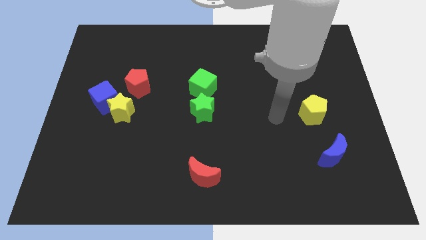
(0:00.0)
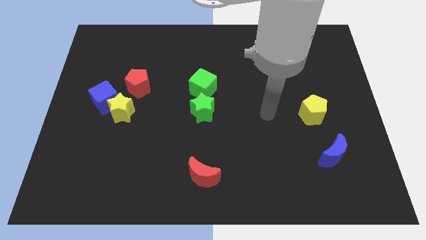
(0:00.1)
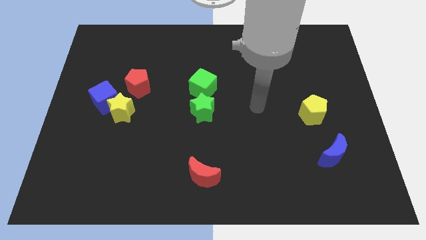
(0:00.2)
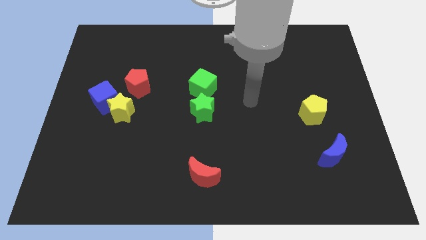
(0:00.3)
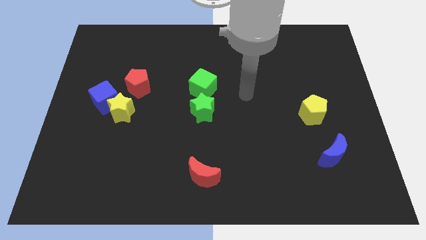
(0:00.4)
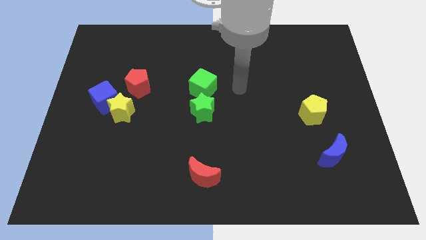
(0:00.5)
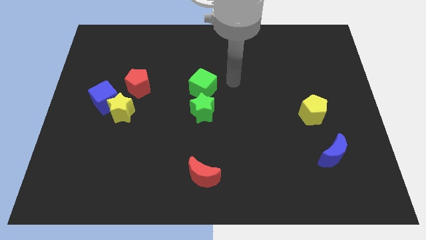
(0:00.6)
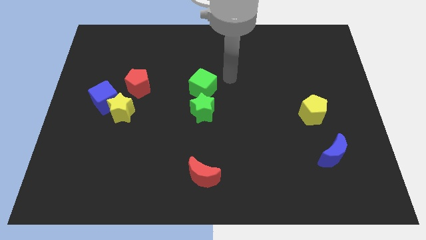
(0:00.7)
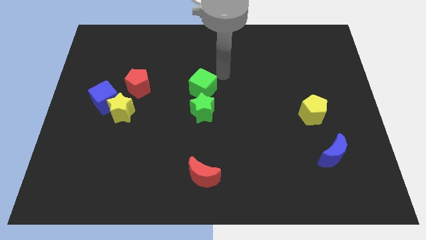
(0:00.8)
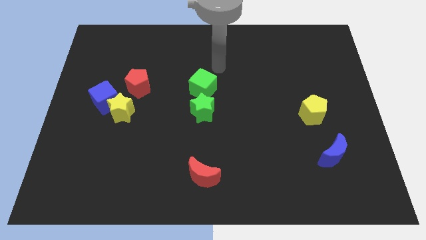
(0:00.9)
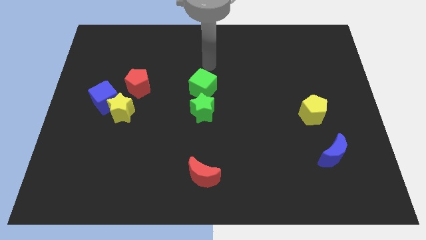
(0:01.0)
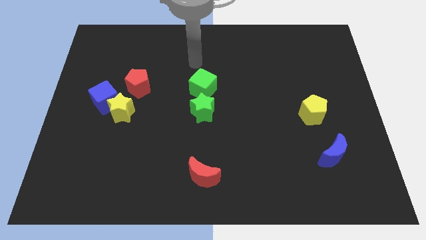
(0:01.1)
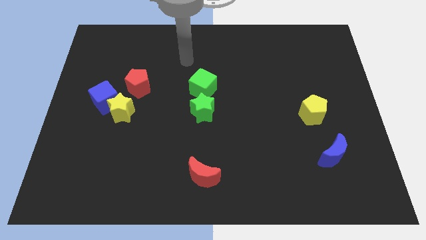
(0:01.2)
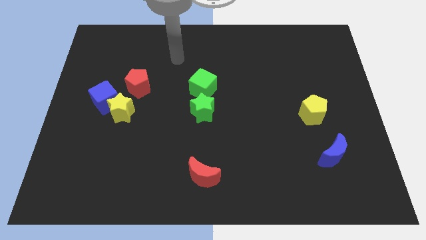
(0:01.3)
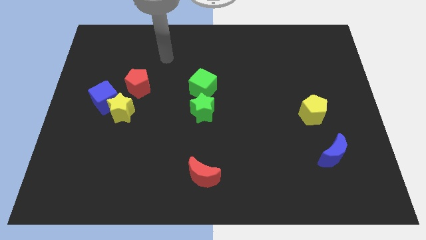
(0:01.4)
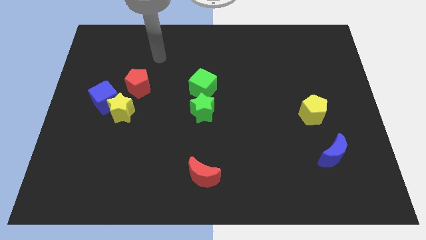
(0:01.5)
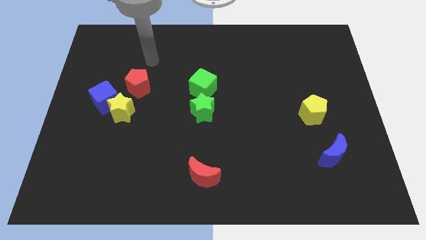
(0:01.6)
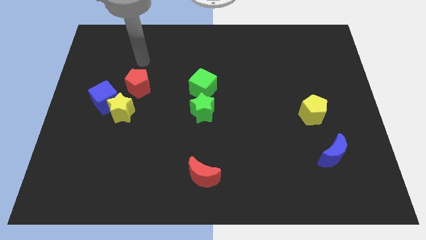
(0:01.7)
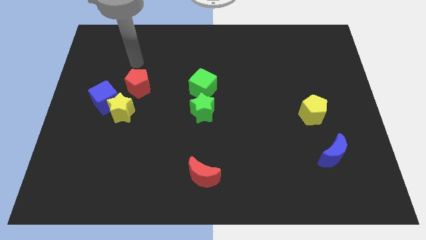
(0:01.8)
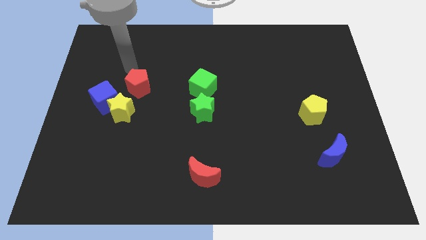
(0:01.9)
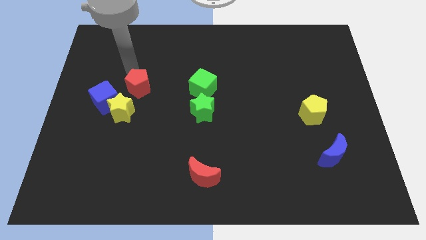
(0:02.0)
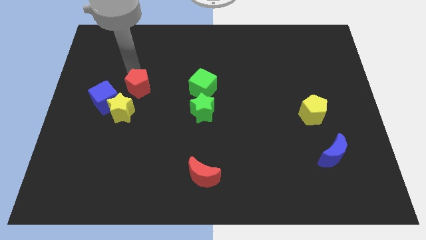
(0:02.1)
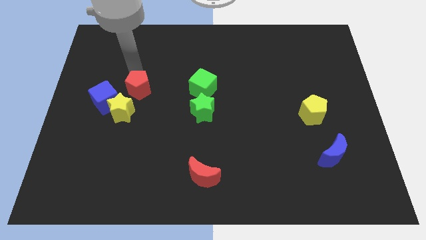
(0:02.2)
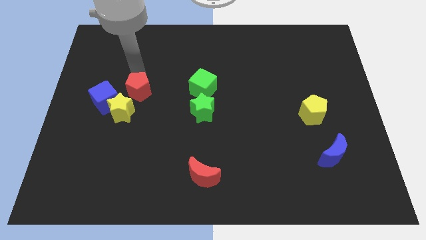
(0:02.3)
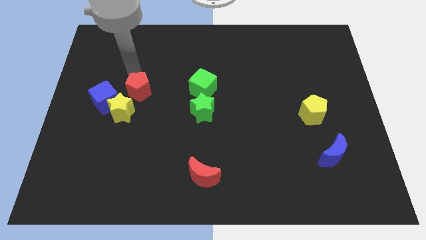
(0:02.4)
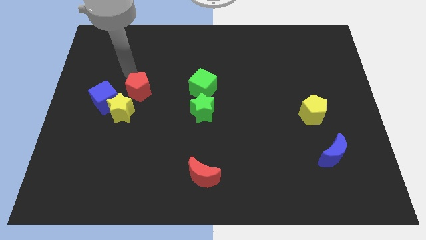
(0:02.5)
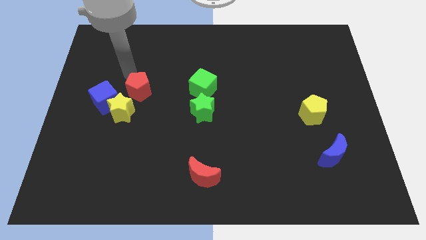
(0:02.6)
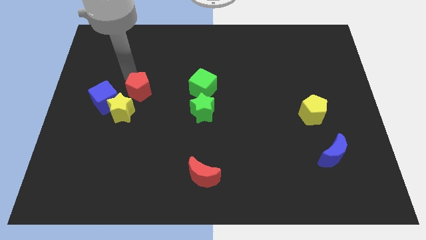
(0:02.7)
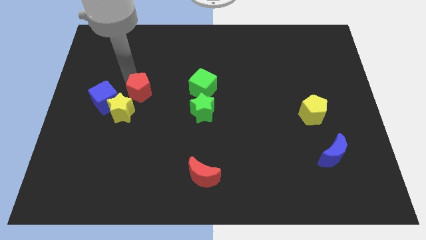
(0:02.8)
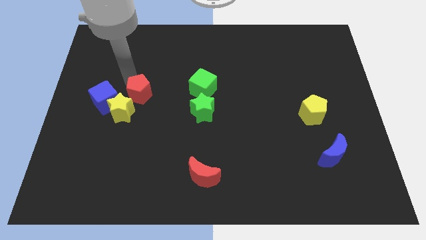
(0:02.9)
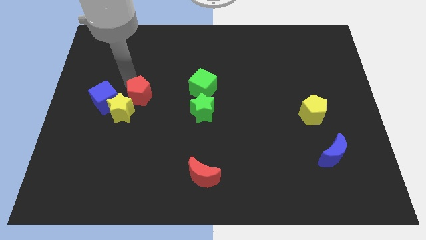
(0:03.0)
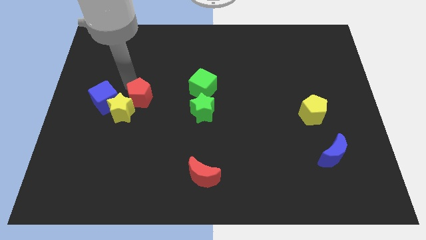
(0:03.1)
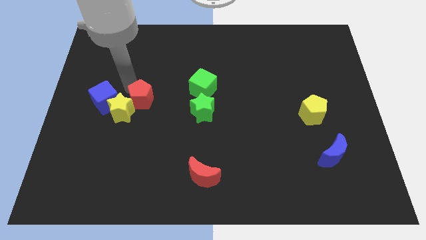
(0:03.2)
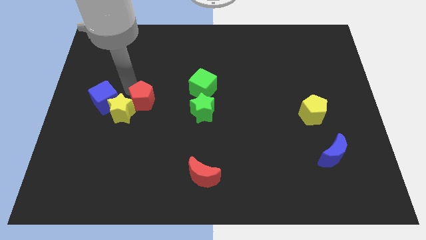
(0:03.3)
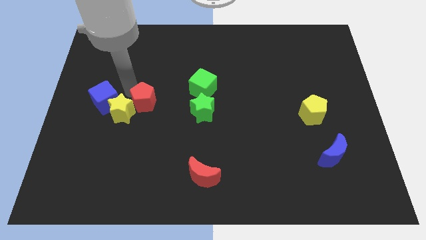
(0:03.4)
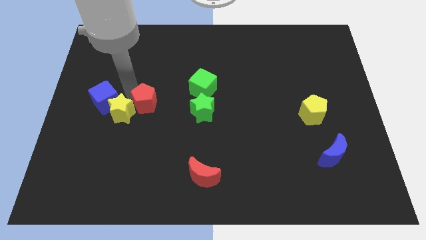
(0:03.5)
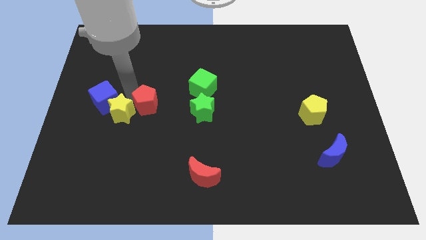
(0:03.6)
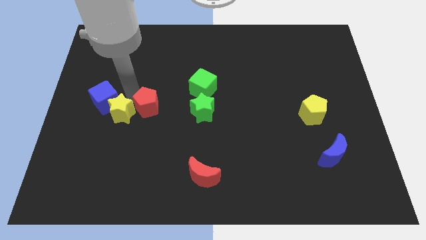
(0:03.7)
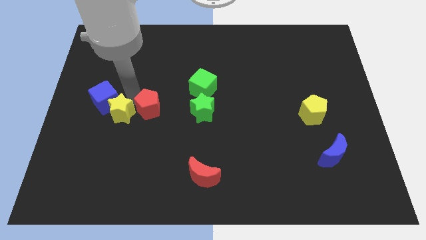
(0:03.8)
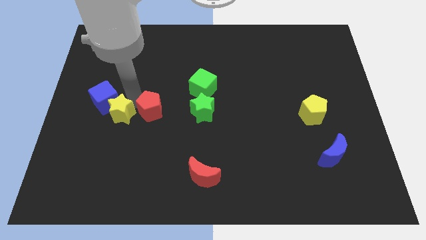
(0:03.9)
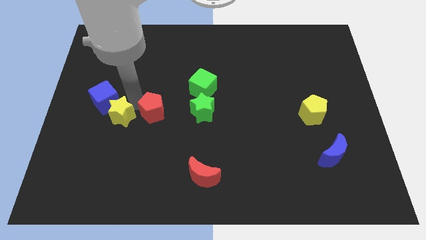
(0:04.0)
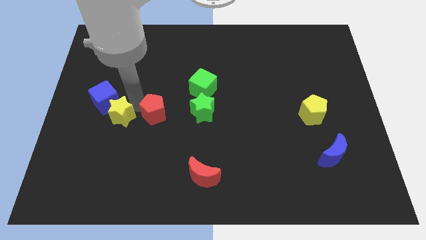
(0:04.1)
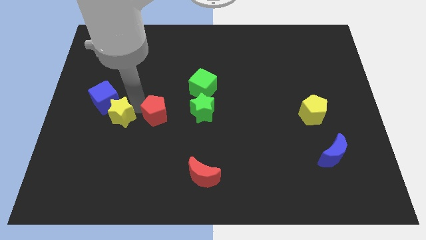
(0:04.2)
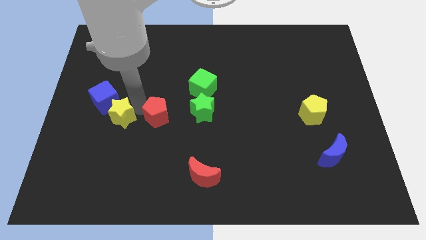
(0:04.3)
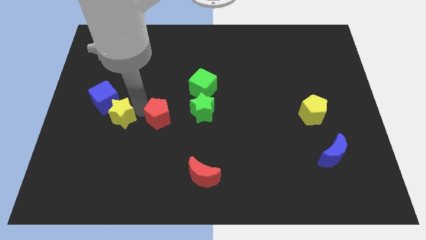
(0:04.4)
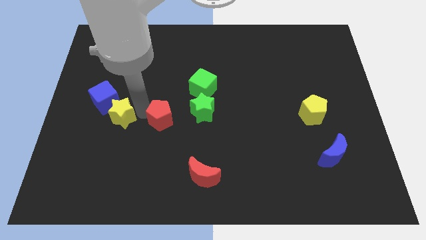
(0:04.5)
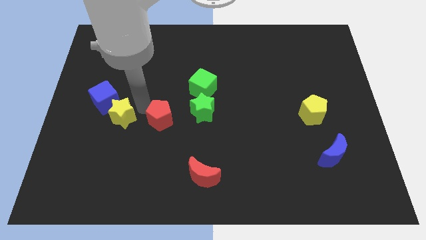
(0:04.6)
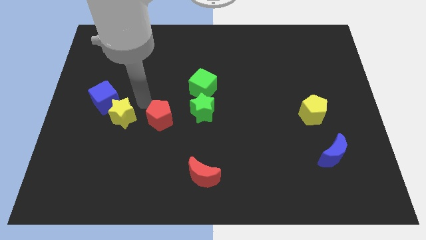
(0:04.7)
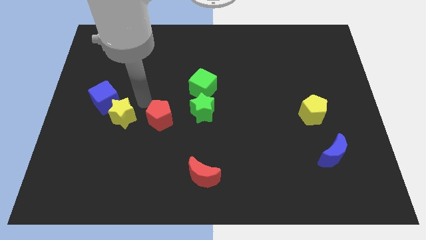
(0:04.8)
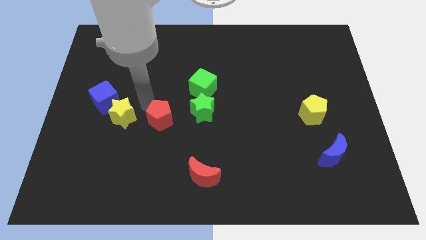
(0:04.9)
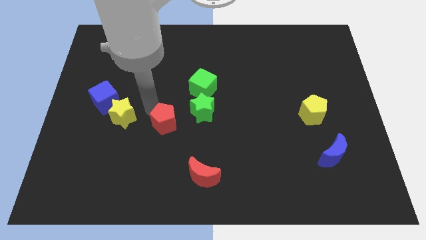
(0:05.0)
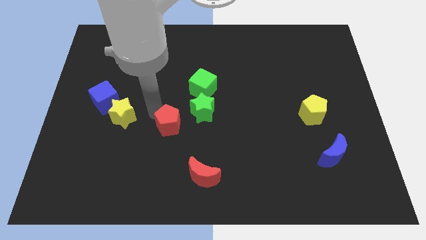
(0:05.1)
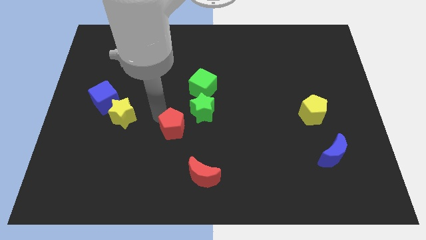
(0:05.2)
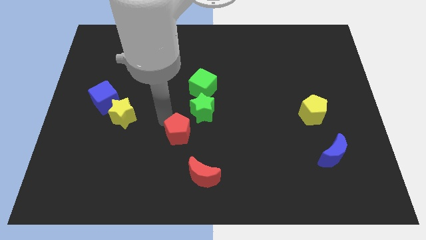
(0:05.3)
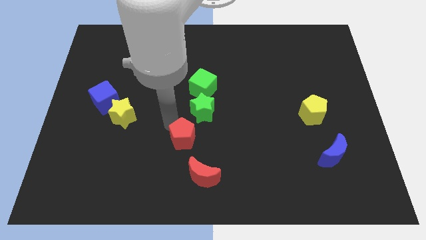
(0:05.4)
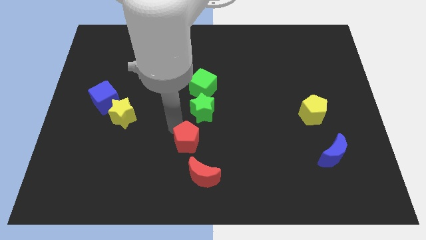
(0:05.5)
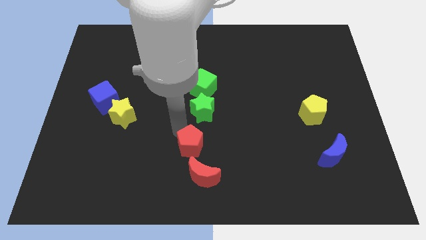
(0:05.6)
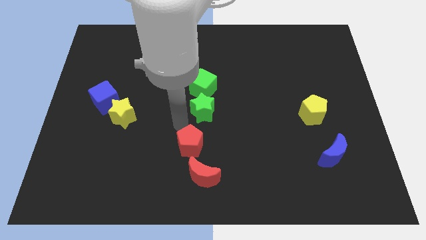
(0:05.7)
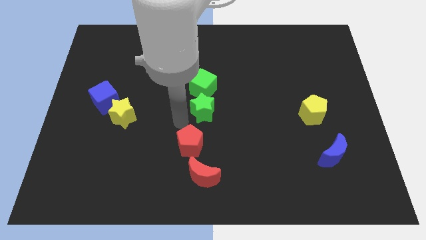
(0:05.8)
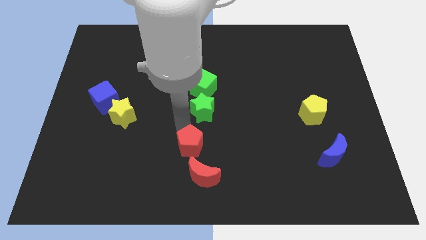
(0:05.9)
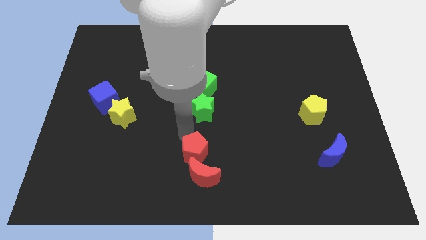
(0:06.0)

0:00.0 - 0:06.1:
slide the red pentagon next to the red moon

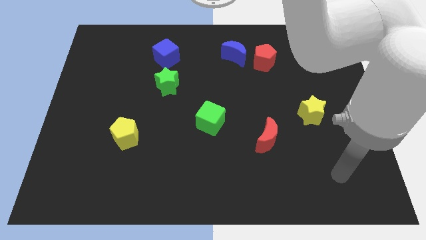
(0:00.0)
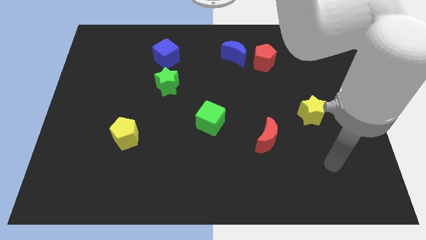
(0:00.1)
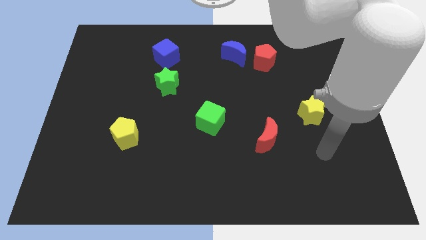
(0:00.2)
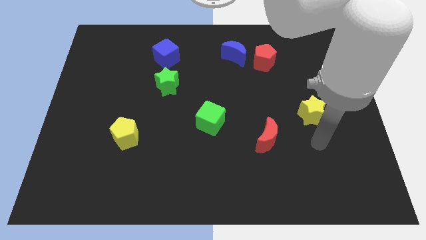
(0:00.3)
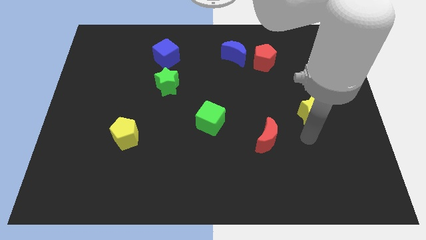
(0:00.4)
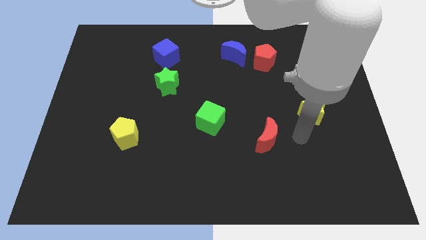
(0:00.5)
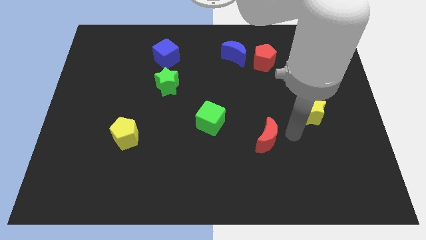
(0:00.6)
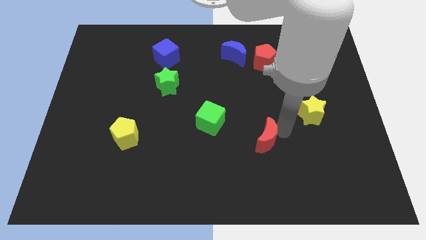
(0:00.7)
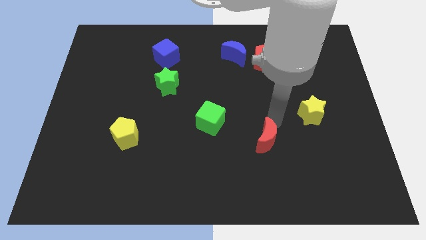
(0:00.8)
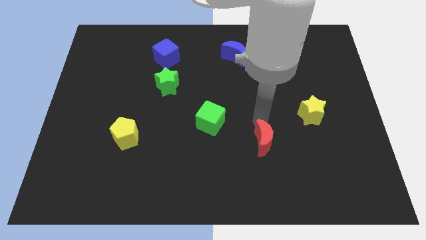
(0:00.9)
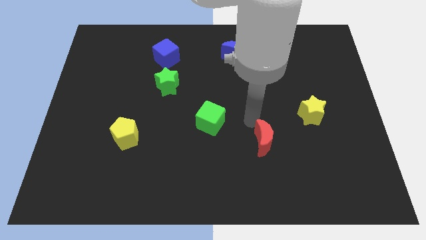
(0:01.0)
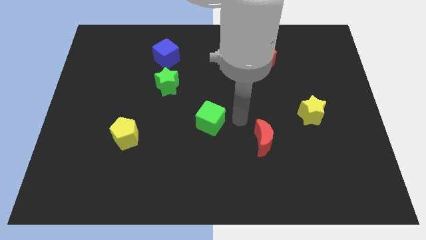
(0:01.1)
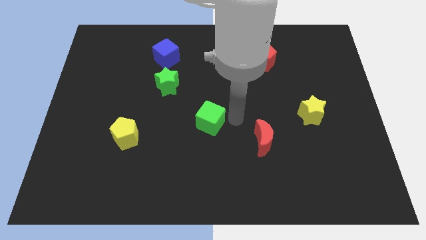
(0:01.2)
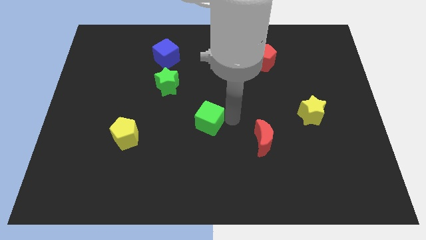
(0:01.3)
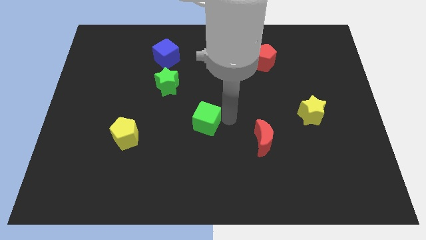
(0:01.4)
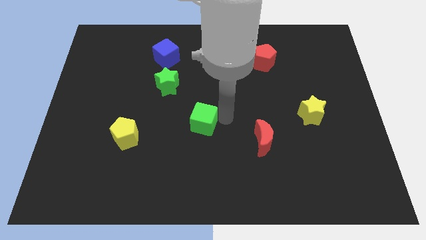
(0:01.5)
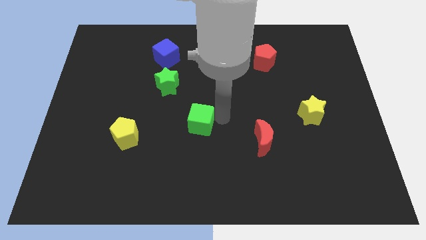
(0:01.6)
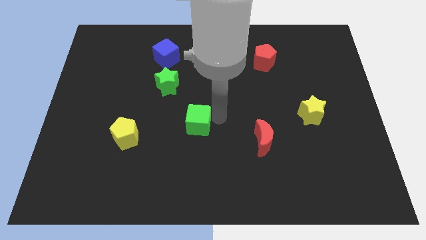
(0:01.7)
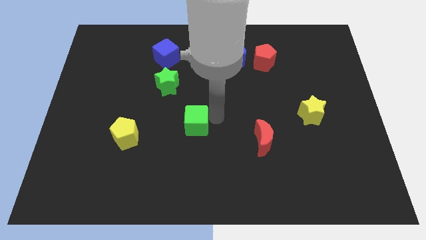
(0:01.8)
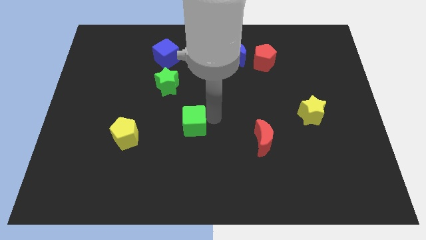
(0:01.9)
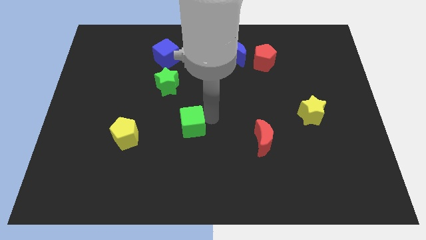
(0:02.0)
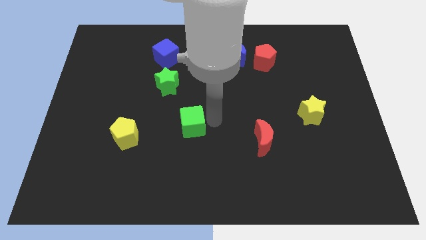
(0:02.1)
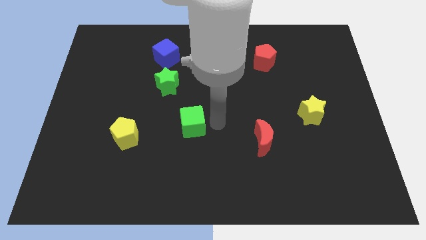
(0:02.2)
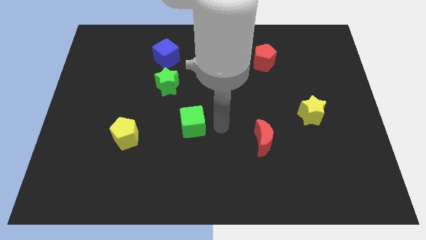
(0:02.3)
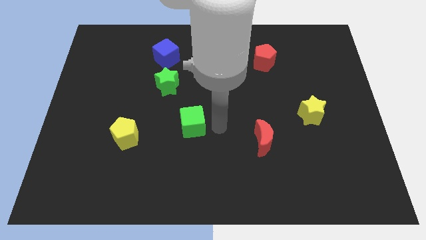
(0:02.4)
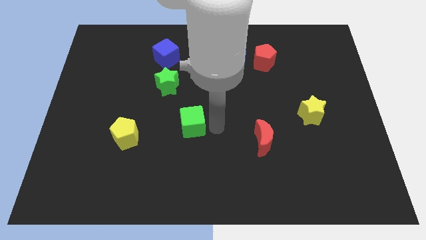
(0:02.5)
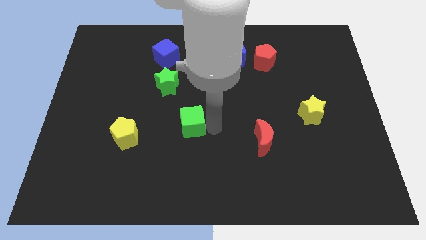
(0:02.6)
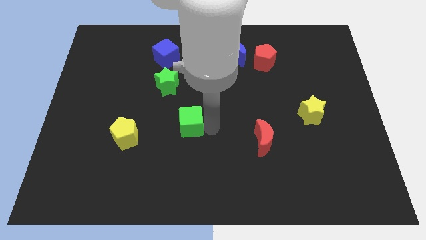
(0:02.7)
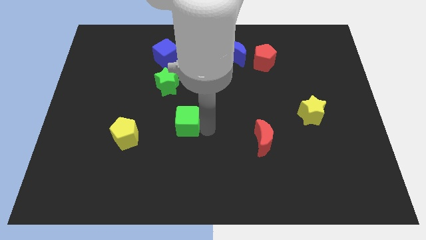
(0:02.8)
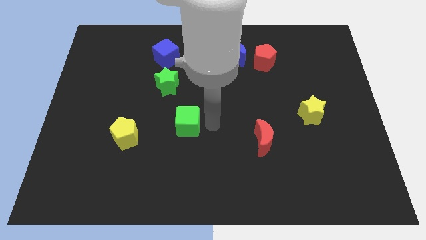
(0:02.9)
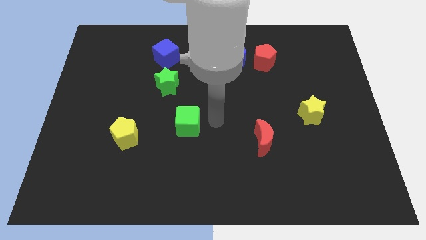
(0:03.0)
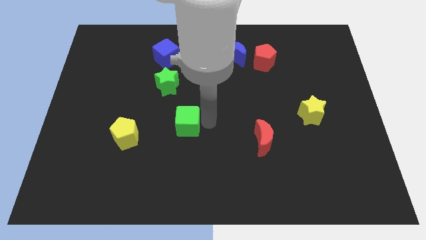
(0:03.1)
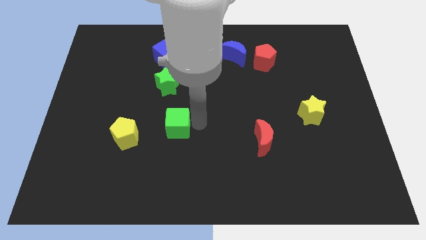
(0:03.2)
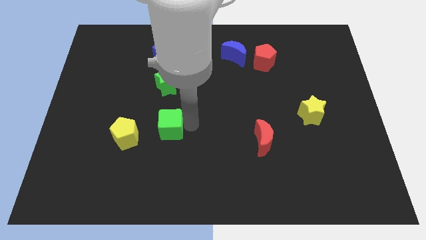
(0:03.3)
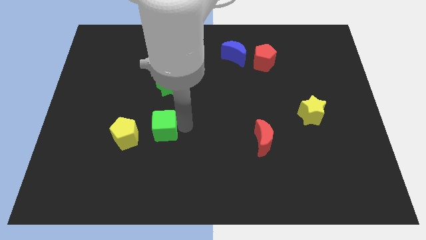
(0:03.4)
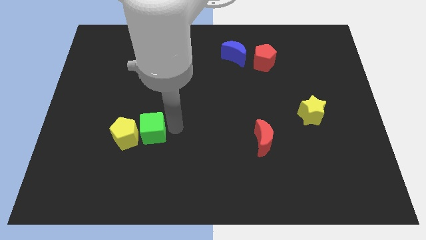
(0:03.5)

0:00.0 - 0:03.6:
move the green cube to the yellow pentagon
